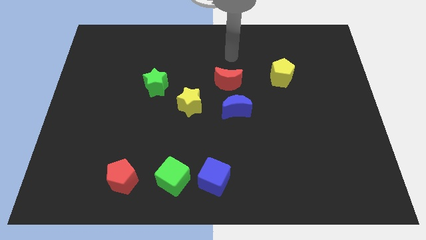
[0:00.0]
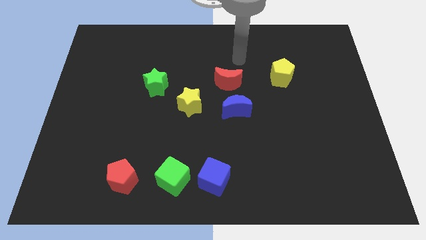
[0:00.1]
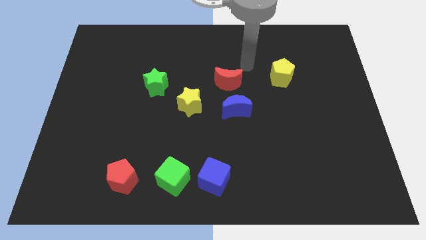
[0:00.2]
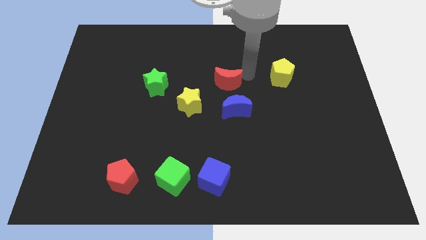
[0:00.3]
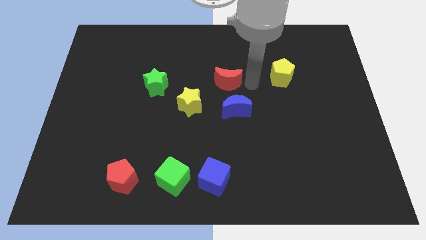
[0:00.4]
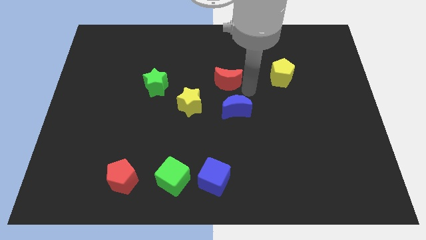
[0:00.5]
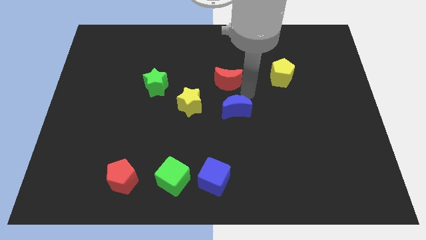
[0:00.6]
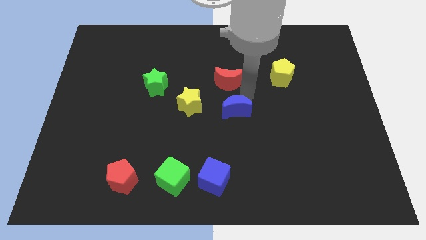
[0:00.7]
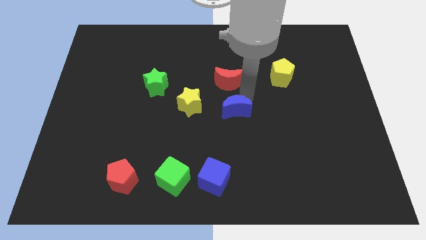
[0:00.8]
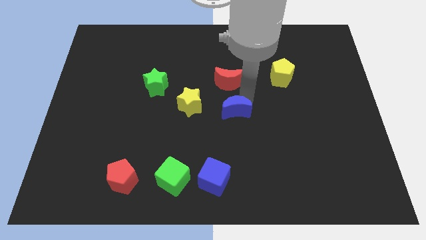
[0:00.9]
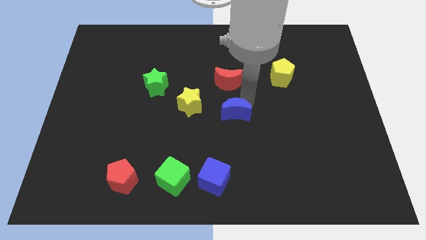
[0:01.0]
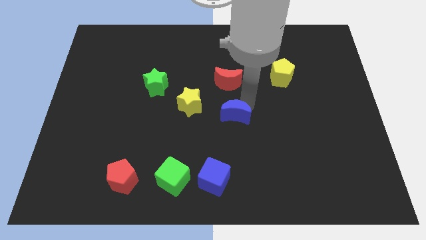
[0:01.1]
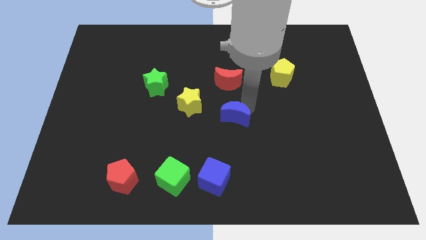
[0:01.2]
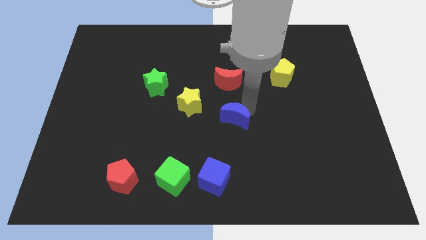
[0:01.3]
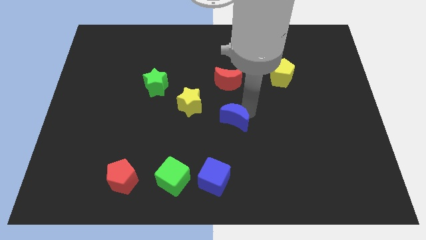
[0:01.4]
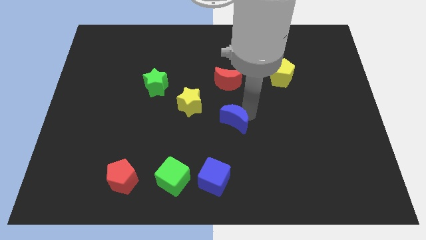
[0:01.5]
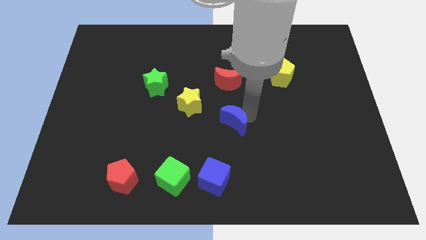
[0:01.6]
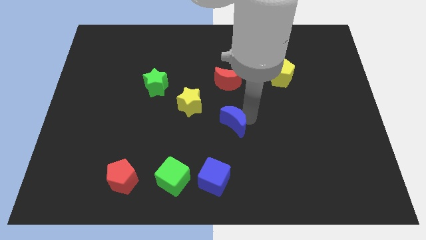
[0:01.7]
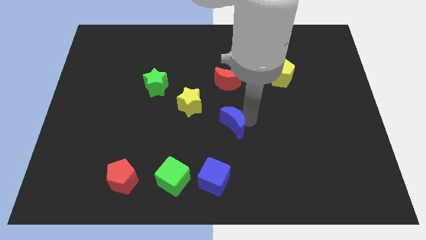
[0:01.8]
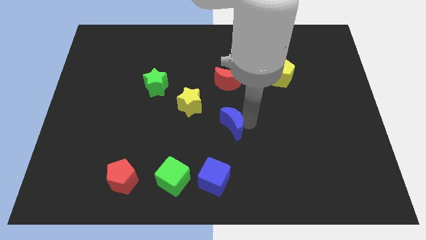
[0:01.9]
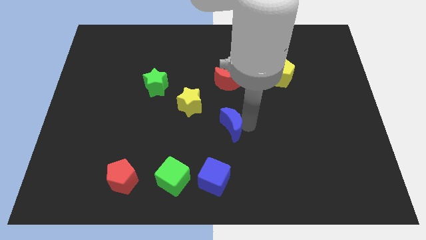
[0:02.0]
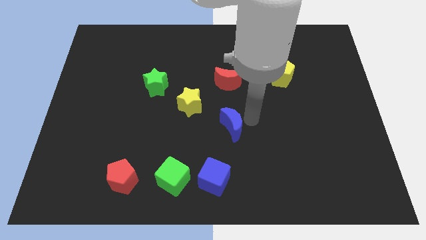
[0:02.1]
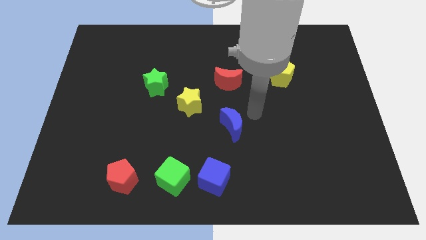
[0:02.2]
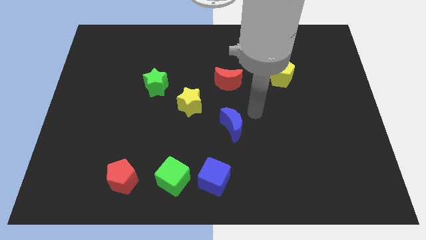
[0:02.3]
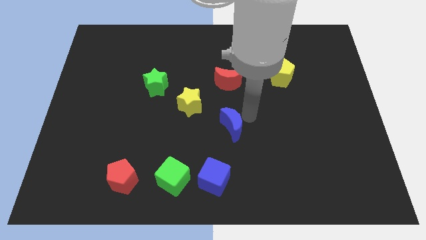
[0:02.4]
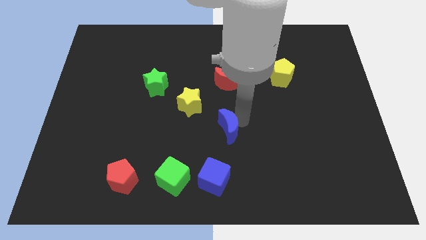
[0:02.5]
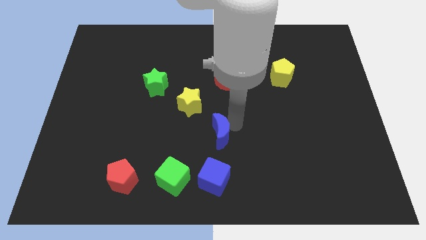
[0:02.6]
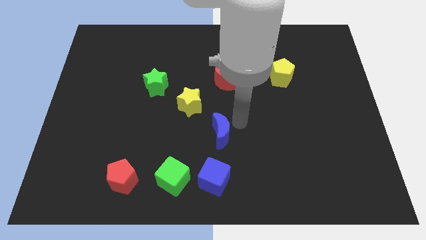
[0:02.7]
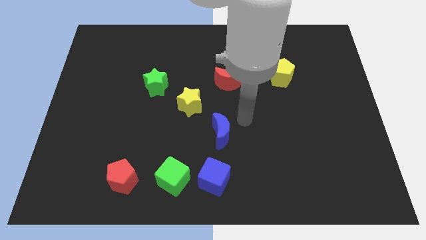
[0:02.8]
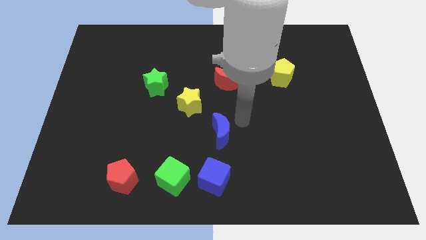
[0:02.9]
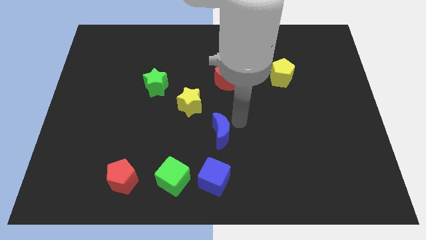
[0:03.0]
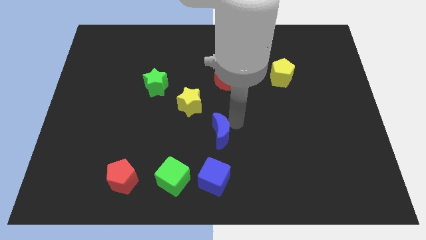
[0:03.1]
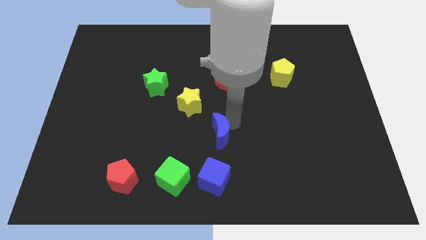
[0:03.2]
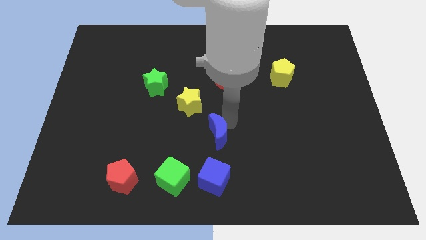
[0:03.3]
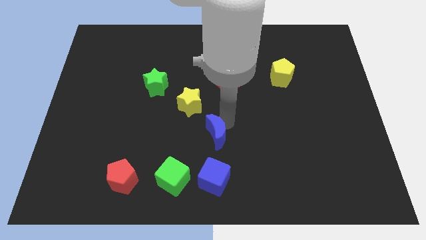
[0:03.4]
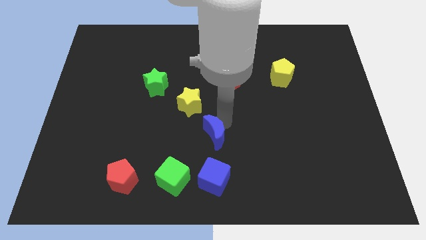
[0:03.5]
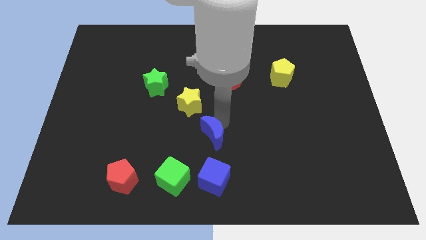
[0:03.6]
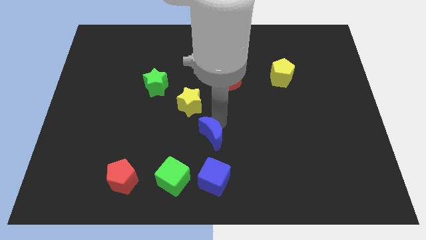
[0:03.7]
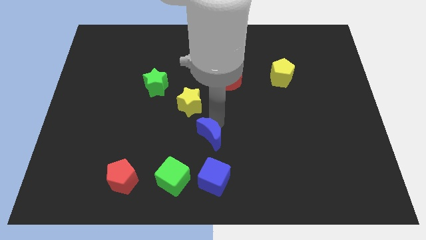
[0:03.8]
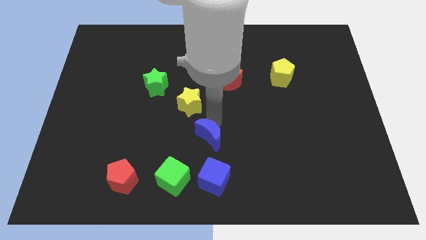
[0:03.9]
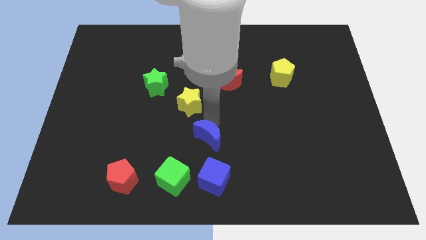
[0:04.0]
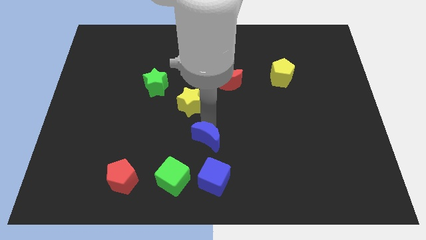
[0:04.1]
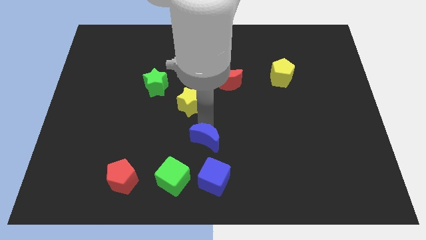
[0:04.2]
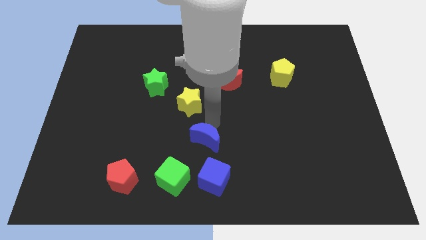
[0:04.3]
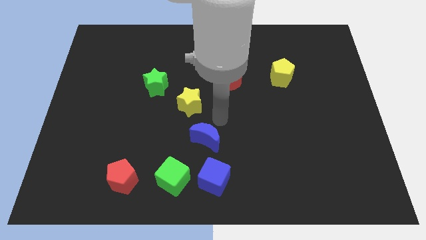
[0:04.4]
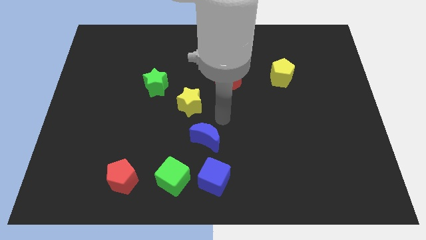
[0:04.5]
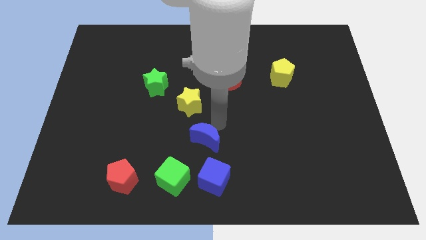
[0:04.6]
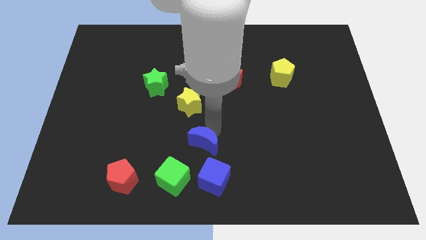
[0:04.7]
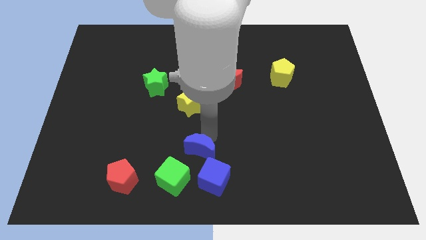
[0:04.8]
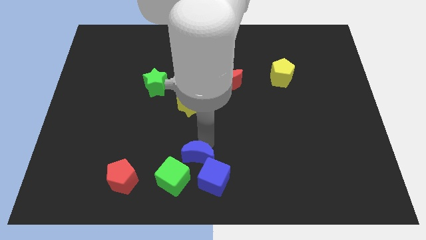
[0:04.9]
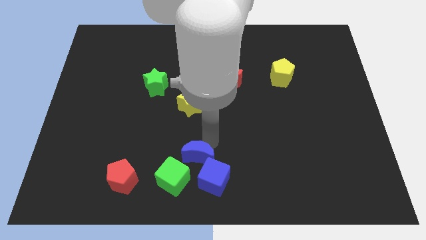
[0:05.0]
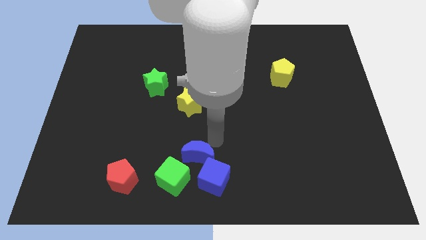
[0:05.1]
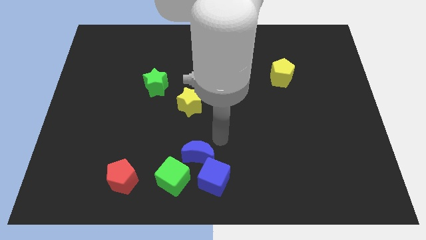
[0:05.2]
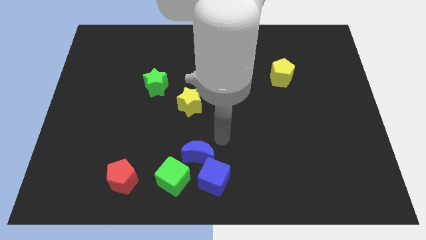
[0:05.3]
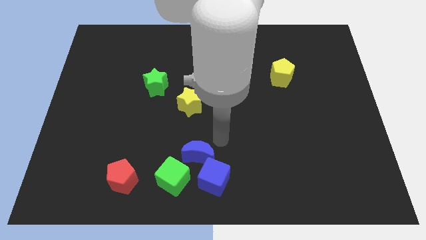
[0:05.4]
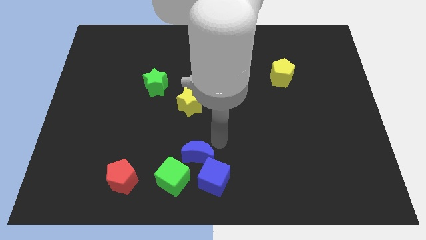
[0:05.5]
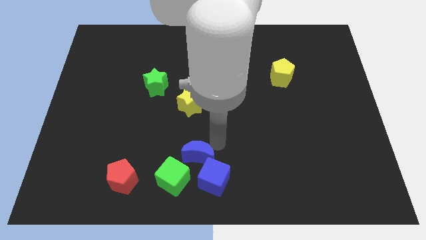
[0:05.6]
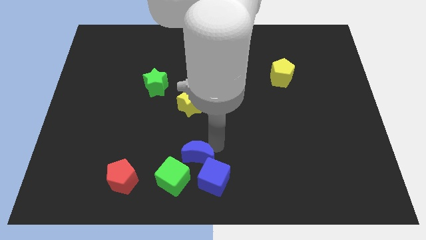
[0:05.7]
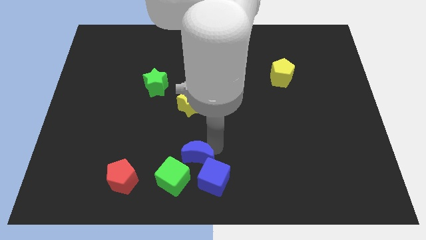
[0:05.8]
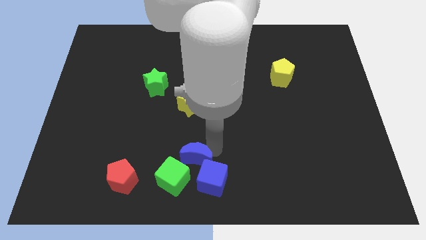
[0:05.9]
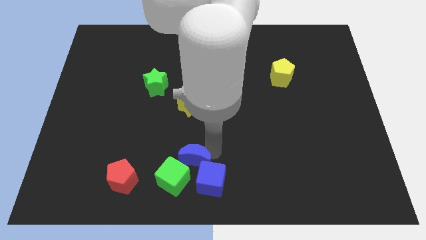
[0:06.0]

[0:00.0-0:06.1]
move the blue moon to the green cube

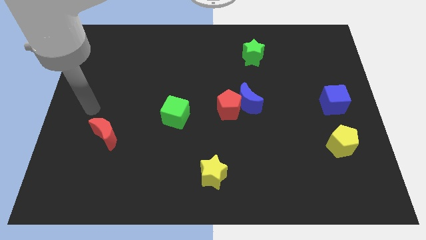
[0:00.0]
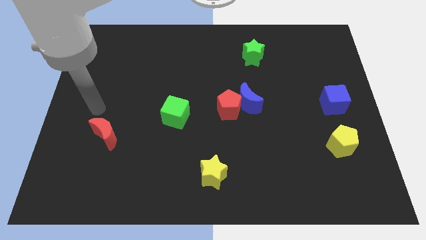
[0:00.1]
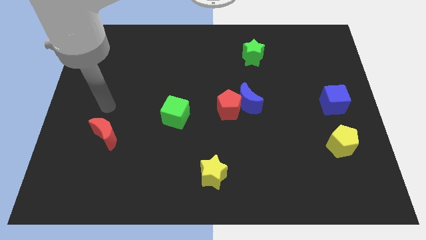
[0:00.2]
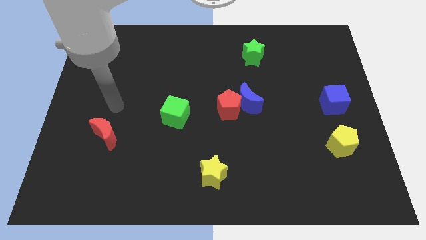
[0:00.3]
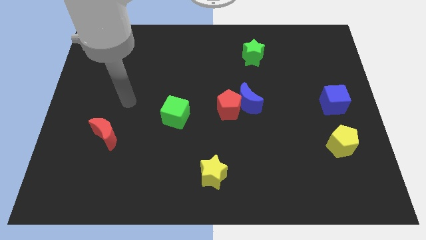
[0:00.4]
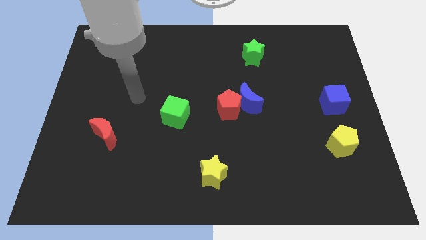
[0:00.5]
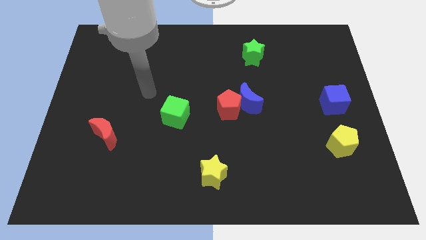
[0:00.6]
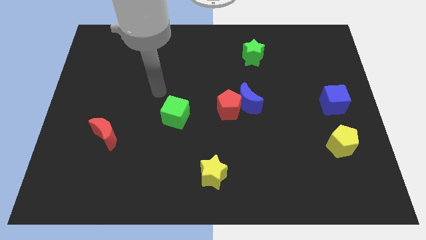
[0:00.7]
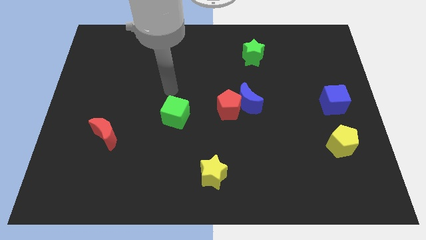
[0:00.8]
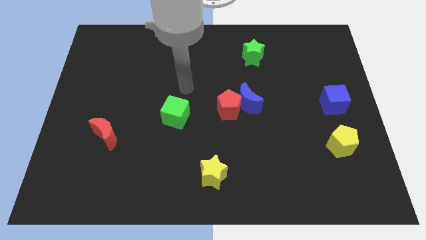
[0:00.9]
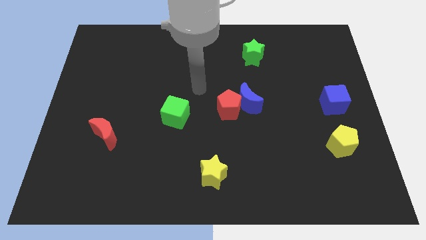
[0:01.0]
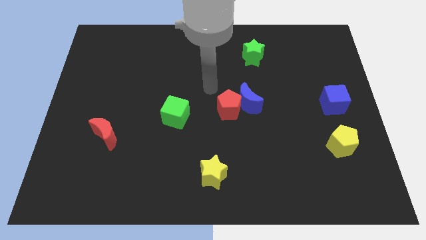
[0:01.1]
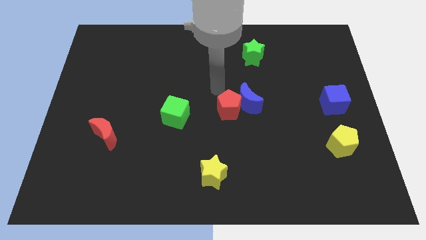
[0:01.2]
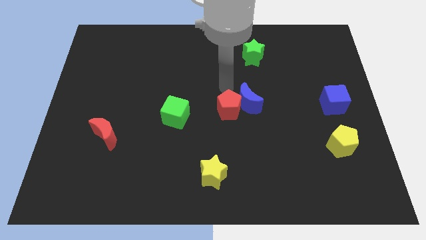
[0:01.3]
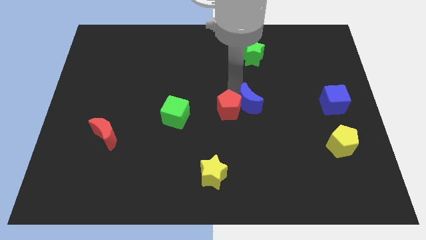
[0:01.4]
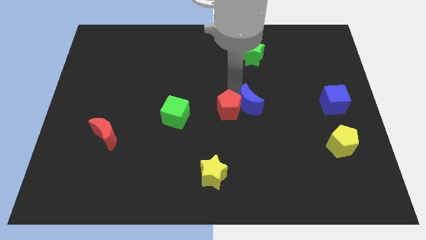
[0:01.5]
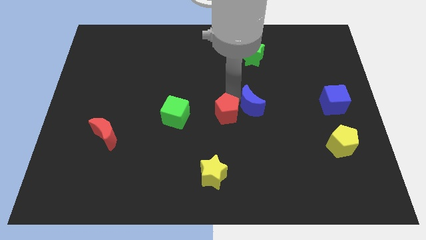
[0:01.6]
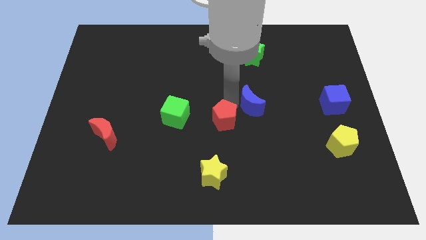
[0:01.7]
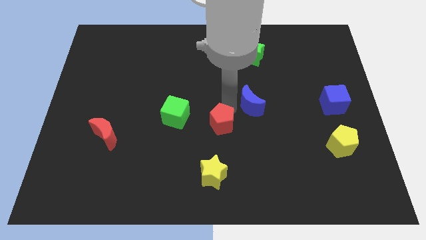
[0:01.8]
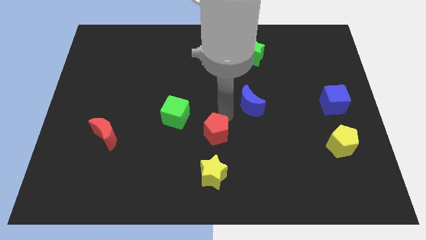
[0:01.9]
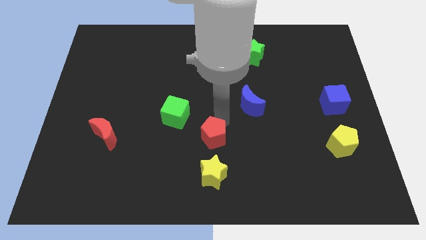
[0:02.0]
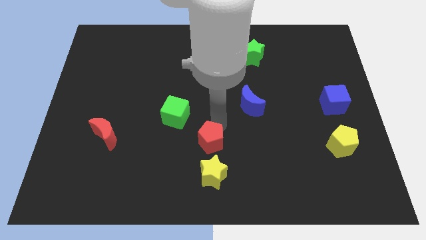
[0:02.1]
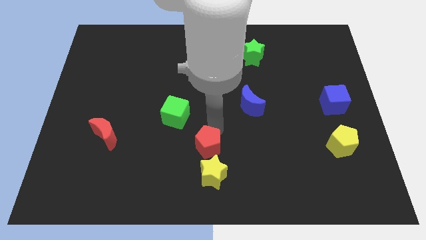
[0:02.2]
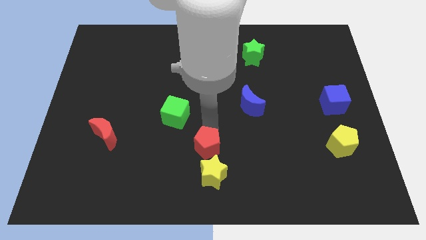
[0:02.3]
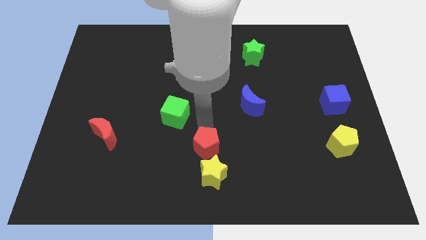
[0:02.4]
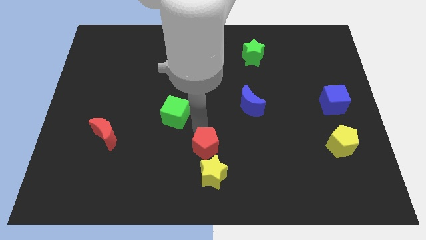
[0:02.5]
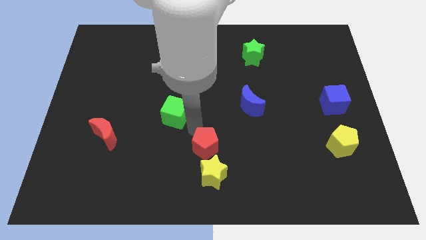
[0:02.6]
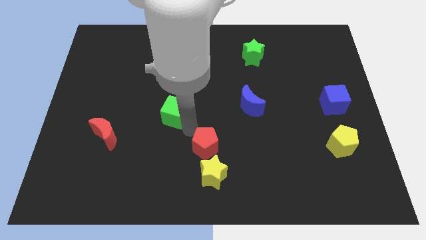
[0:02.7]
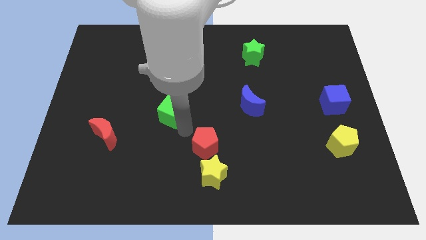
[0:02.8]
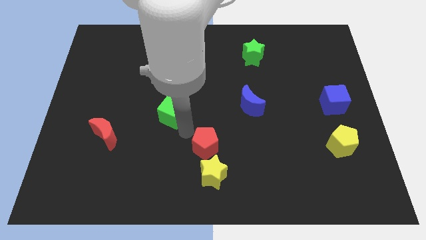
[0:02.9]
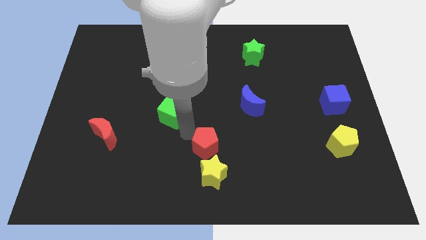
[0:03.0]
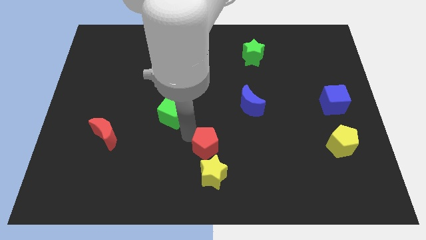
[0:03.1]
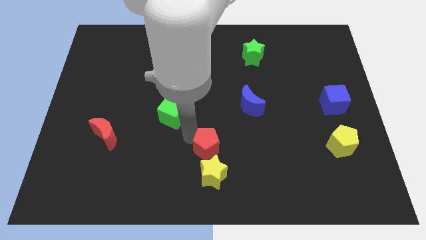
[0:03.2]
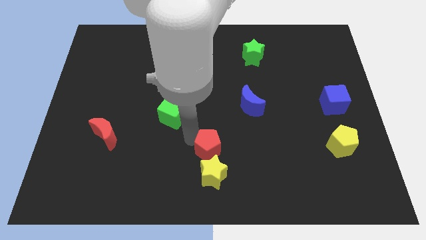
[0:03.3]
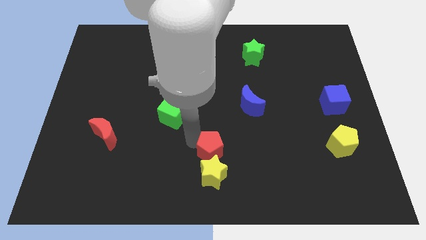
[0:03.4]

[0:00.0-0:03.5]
move the red pentagon close to the yellow star
